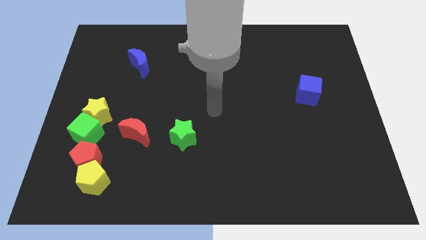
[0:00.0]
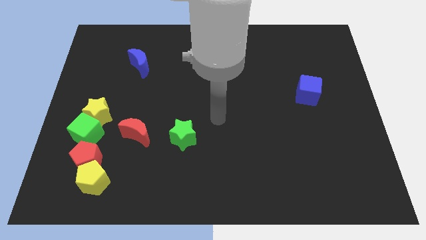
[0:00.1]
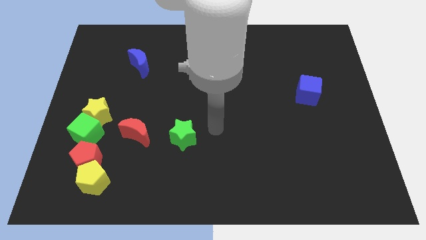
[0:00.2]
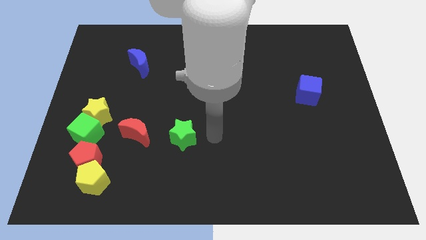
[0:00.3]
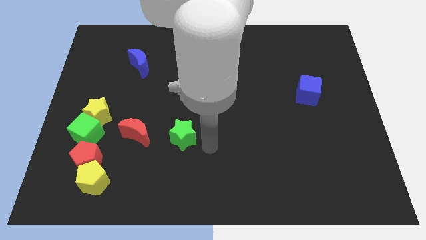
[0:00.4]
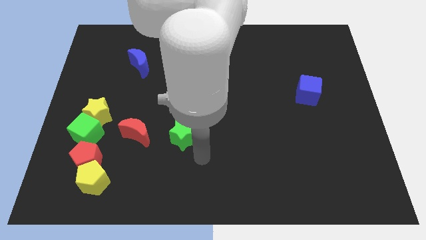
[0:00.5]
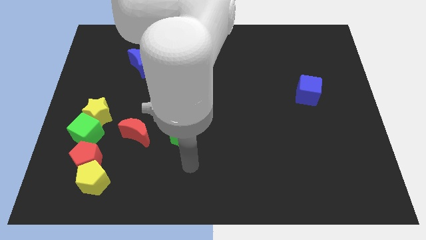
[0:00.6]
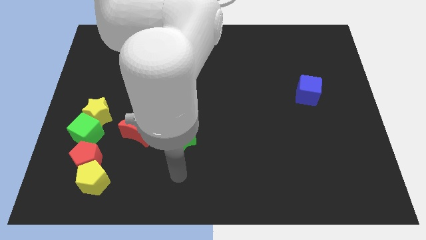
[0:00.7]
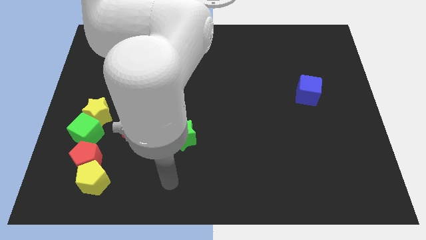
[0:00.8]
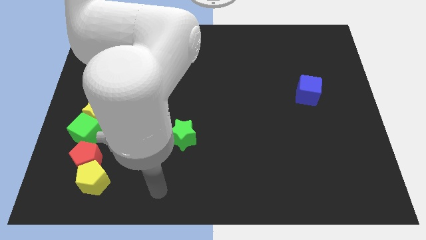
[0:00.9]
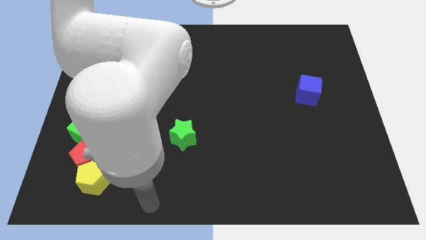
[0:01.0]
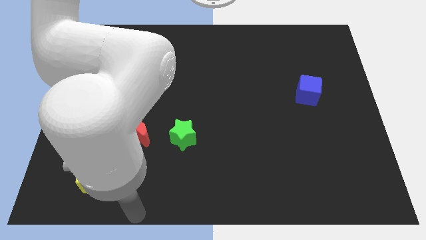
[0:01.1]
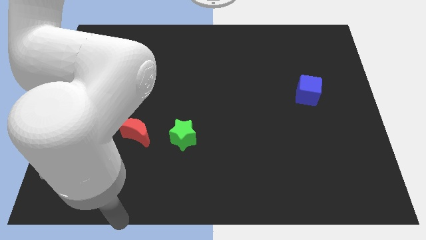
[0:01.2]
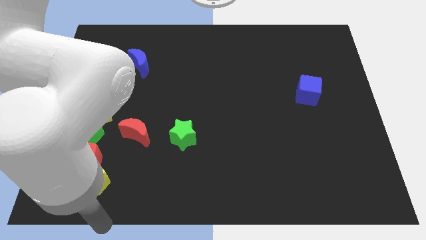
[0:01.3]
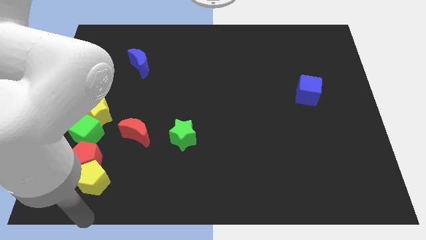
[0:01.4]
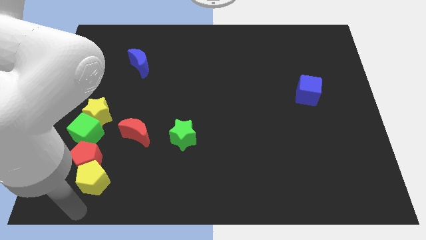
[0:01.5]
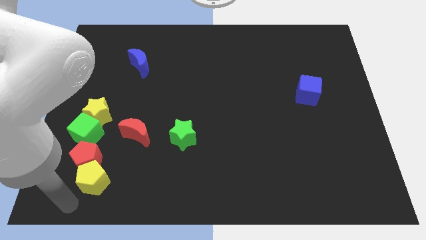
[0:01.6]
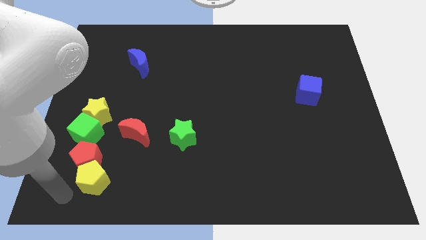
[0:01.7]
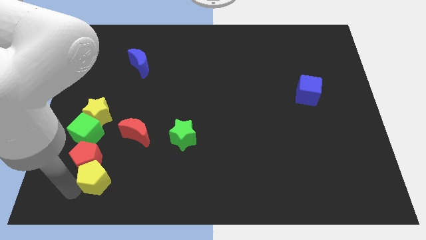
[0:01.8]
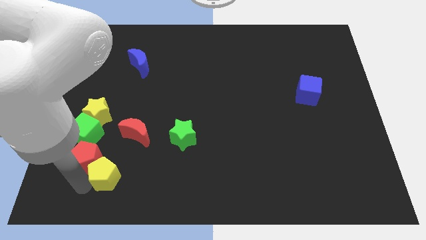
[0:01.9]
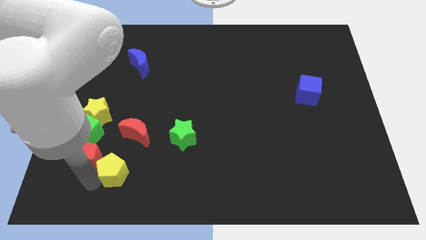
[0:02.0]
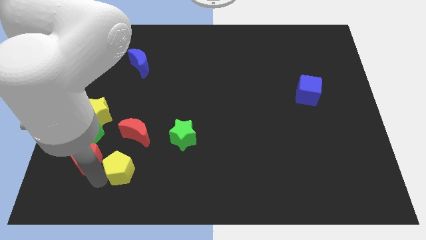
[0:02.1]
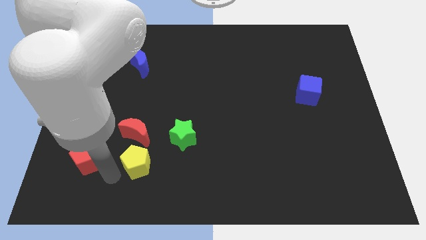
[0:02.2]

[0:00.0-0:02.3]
slide the yellow pentagon slightly upwards and to the right diagonally

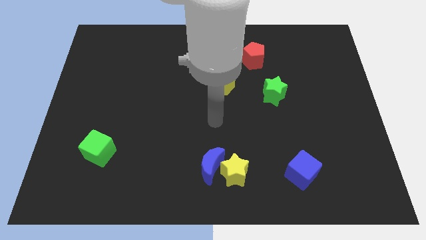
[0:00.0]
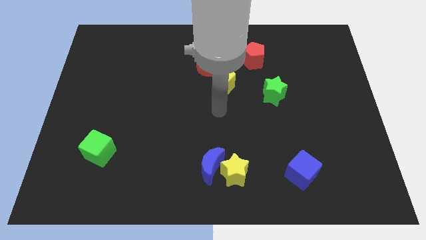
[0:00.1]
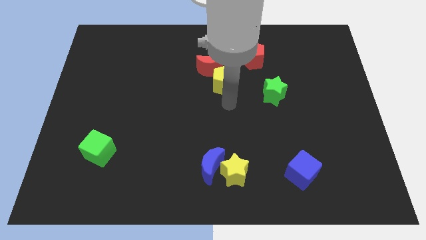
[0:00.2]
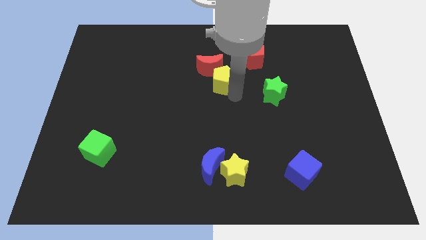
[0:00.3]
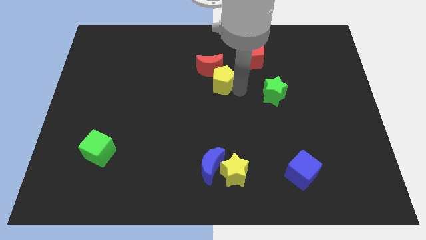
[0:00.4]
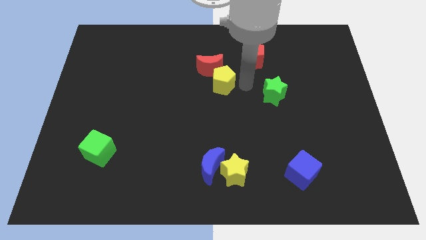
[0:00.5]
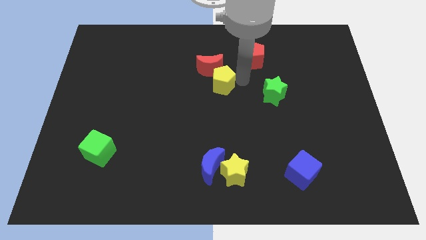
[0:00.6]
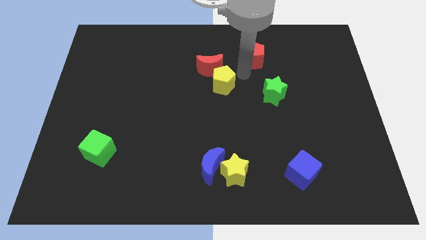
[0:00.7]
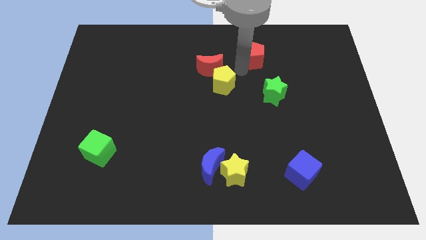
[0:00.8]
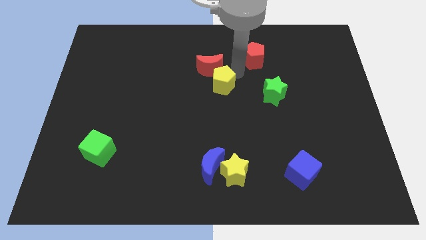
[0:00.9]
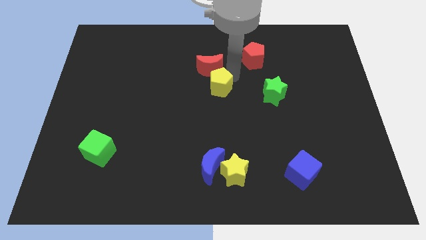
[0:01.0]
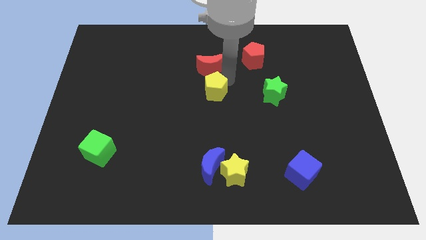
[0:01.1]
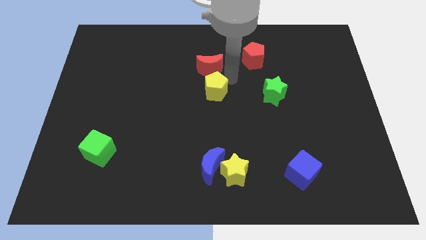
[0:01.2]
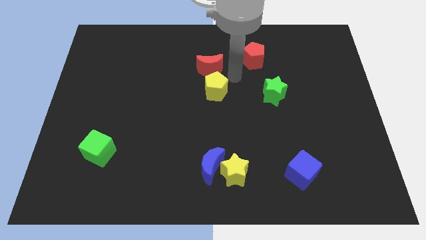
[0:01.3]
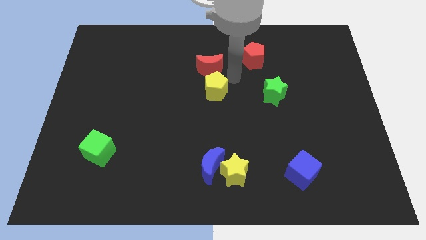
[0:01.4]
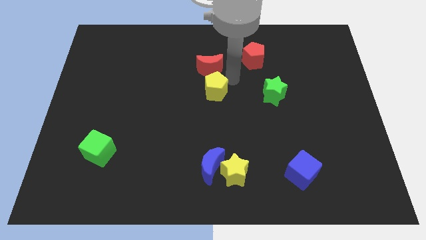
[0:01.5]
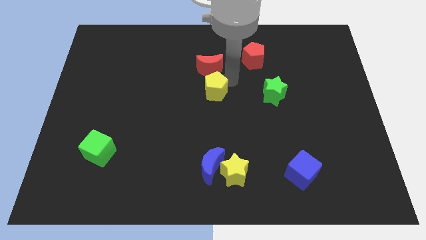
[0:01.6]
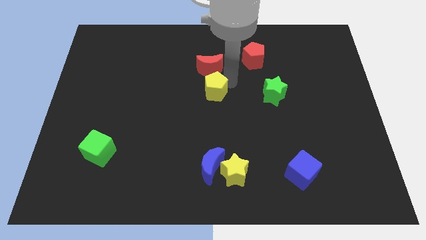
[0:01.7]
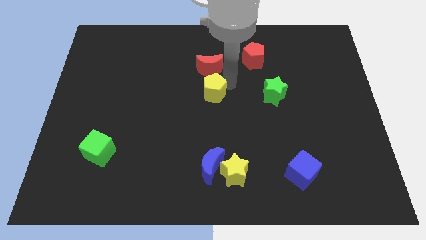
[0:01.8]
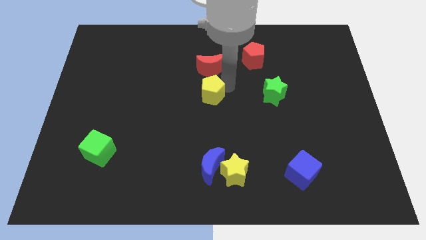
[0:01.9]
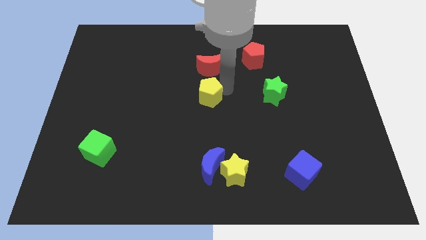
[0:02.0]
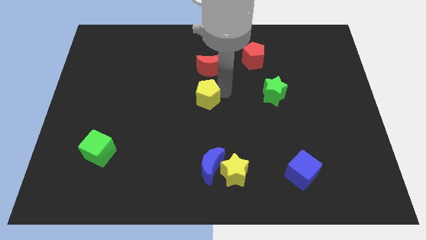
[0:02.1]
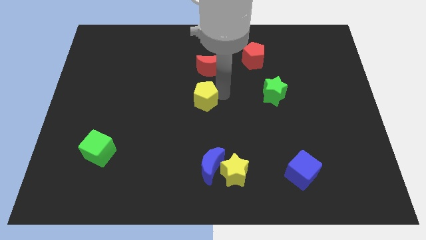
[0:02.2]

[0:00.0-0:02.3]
slide the yellow pentagon somewhat down and to the left diagonally

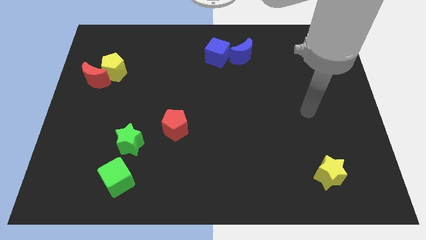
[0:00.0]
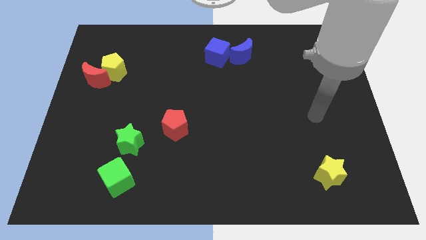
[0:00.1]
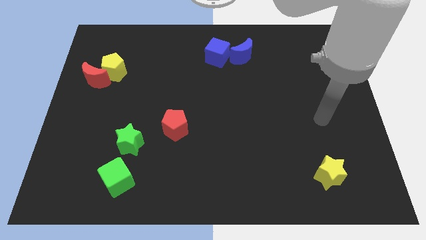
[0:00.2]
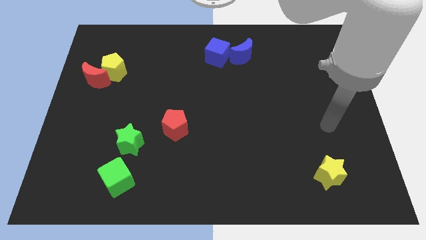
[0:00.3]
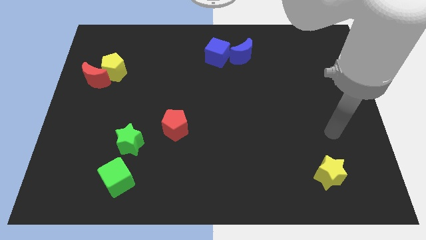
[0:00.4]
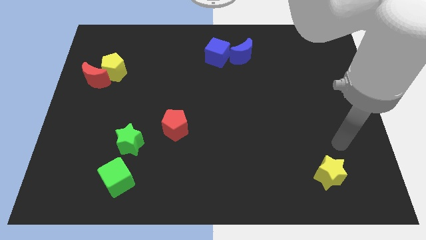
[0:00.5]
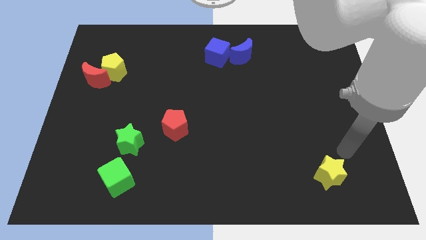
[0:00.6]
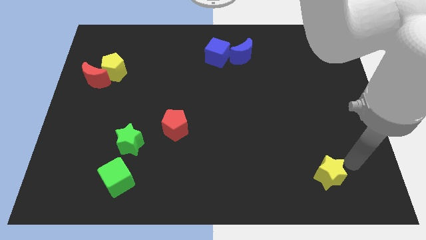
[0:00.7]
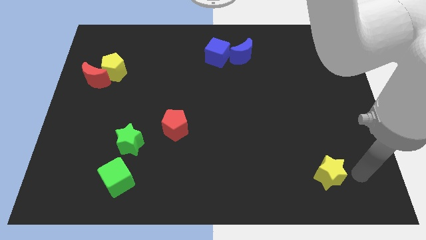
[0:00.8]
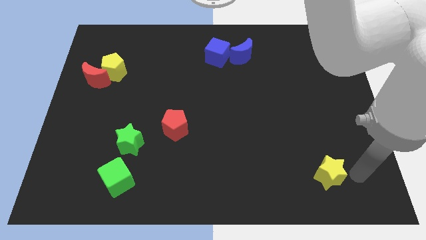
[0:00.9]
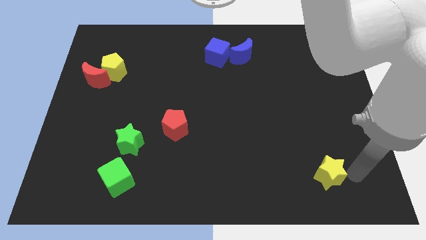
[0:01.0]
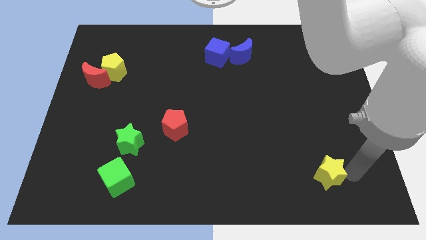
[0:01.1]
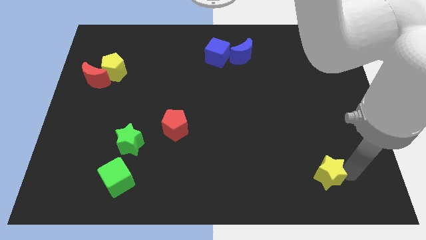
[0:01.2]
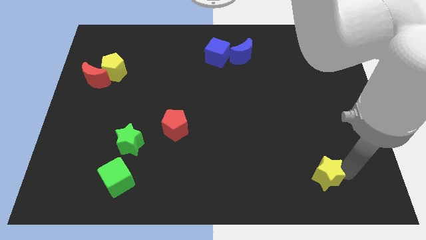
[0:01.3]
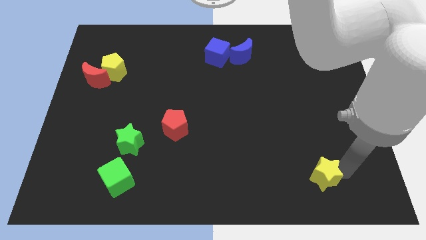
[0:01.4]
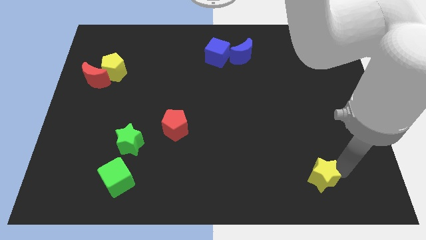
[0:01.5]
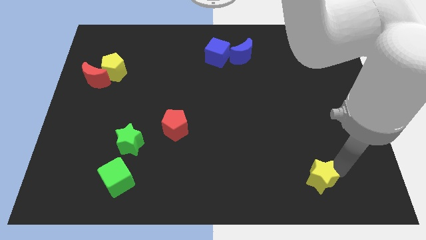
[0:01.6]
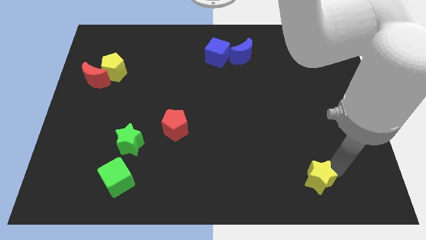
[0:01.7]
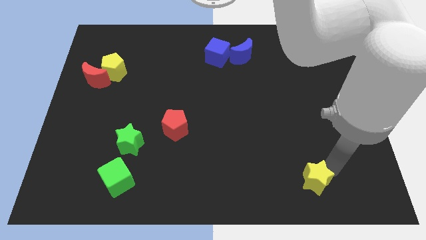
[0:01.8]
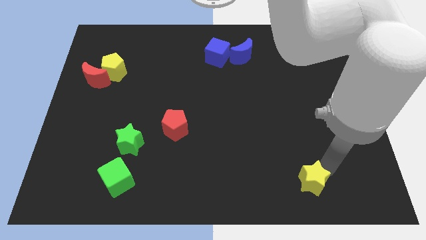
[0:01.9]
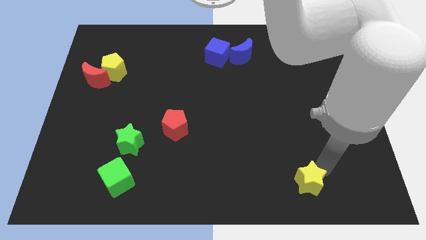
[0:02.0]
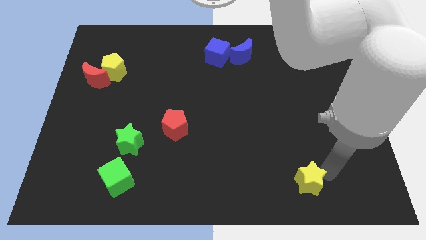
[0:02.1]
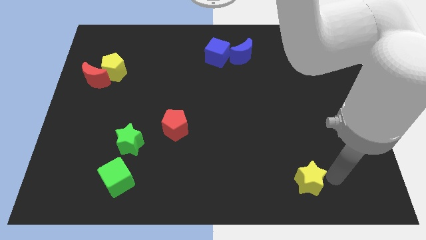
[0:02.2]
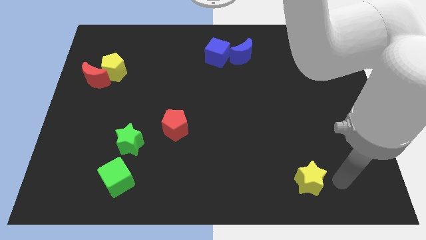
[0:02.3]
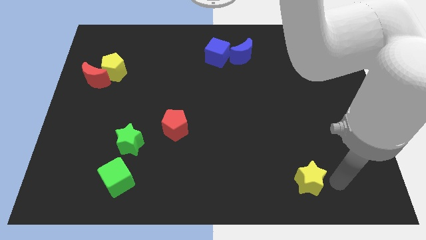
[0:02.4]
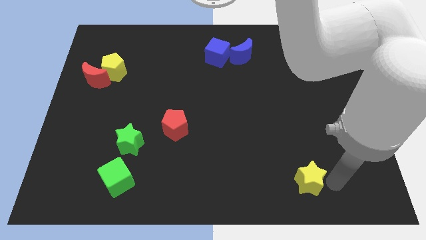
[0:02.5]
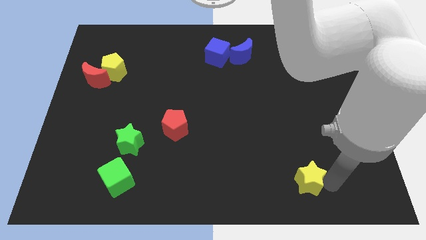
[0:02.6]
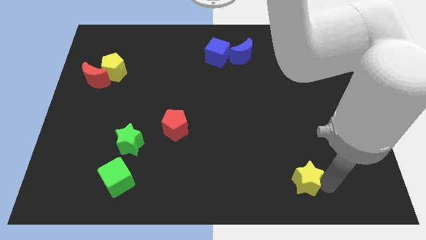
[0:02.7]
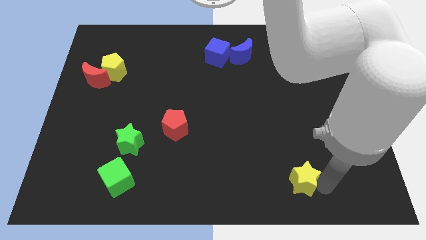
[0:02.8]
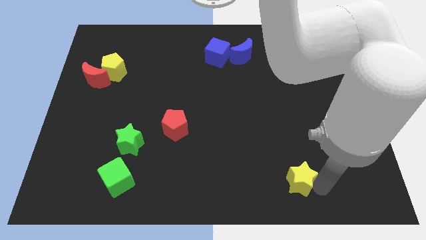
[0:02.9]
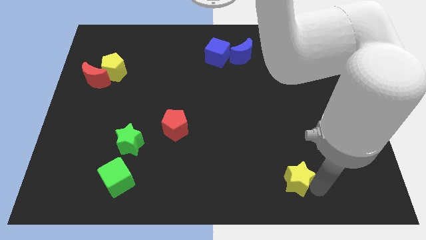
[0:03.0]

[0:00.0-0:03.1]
slightly slide the yellow star left

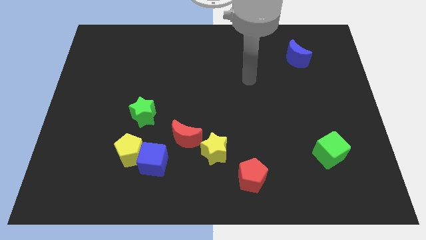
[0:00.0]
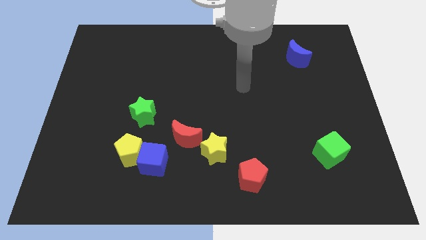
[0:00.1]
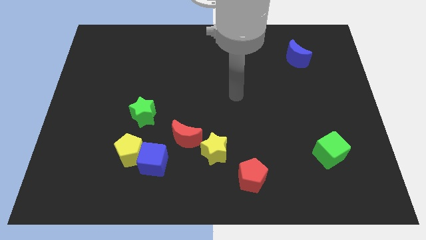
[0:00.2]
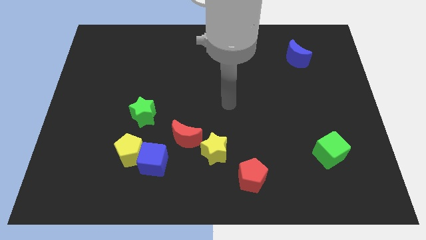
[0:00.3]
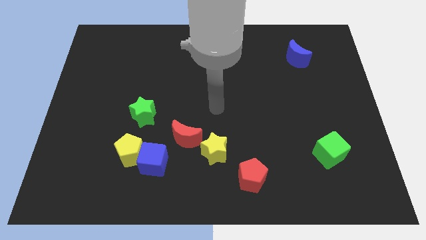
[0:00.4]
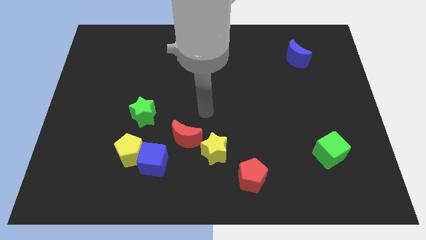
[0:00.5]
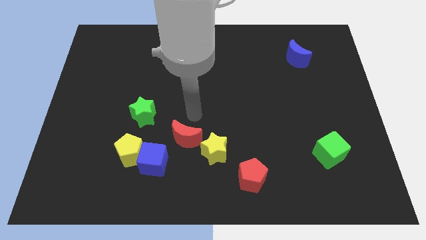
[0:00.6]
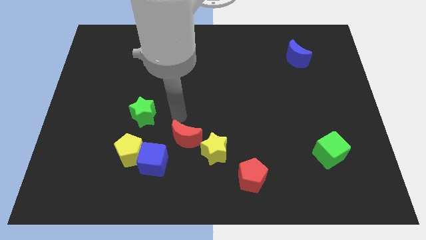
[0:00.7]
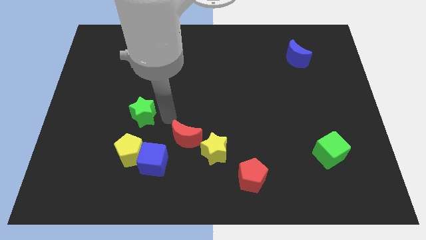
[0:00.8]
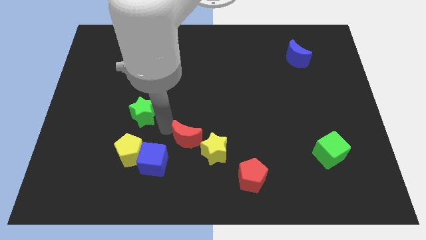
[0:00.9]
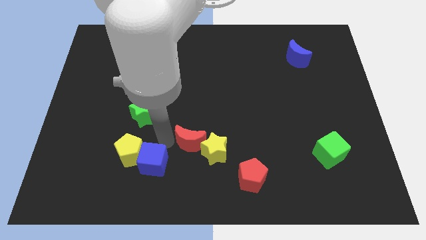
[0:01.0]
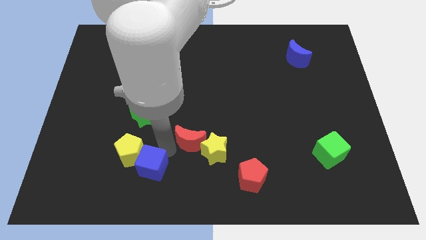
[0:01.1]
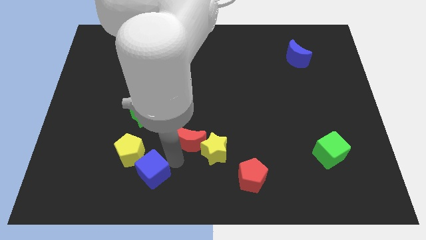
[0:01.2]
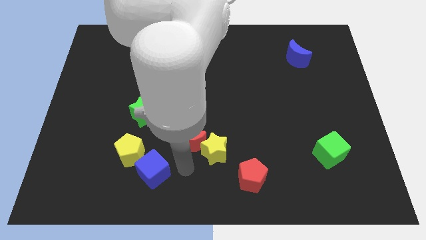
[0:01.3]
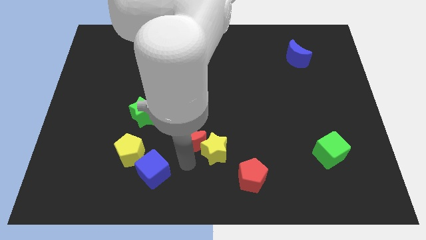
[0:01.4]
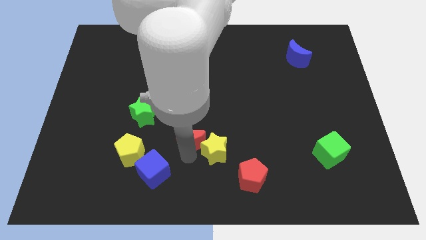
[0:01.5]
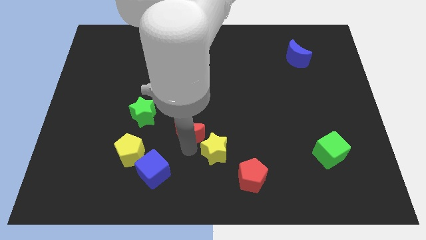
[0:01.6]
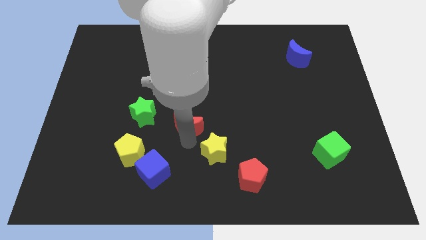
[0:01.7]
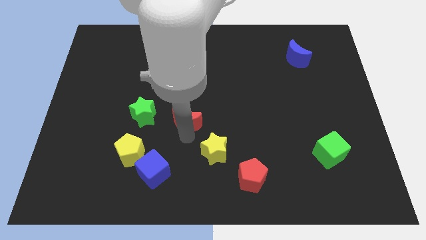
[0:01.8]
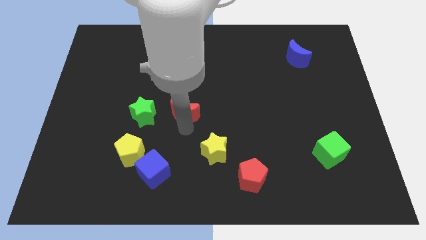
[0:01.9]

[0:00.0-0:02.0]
push the red moon a bit upwards
